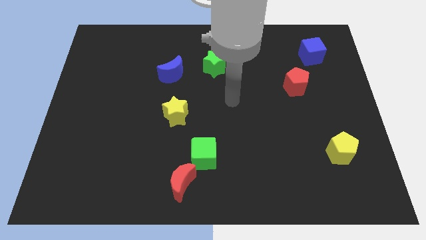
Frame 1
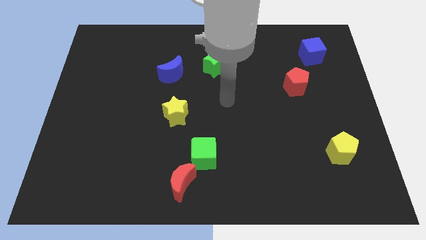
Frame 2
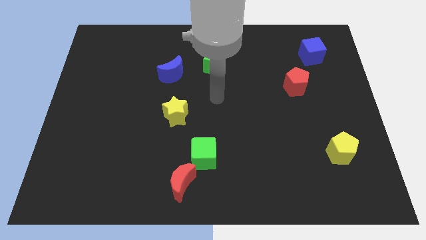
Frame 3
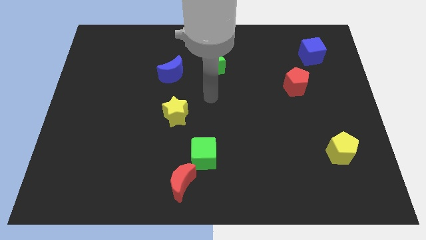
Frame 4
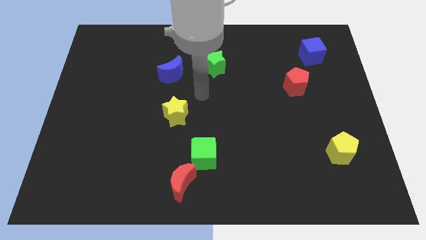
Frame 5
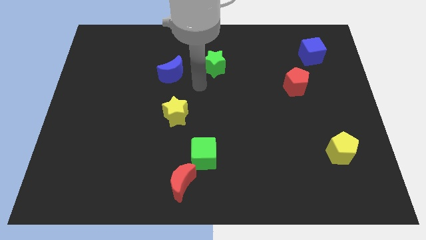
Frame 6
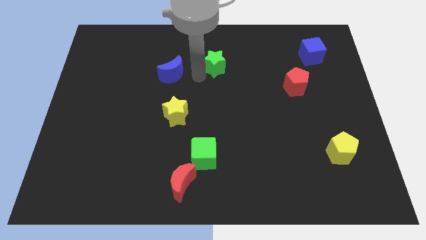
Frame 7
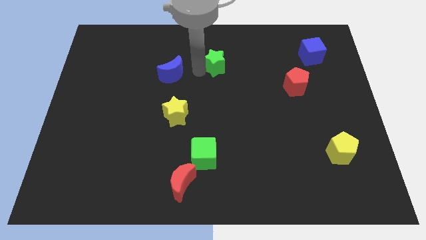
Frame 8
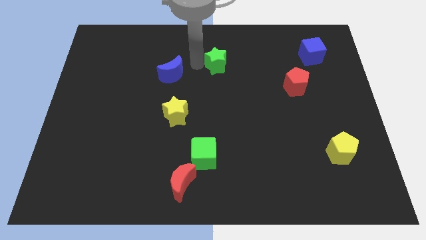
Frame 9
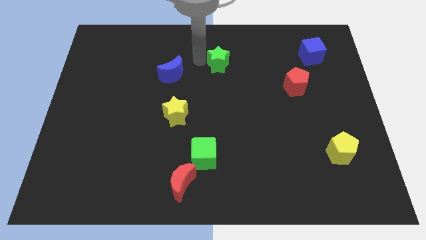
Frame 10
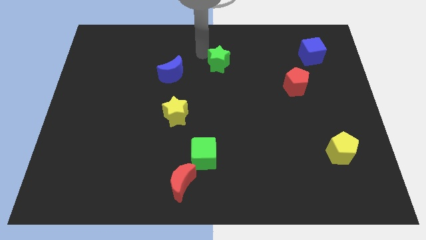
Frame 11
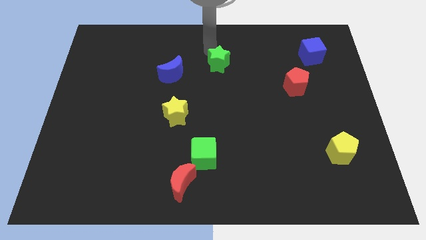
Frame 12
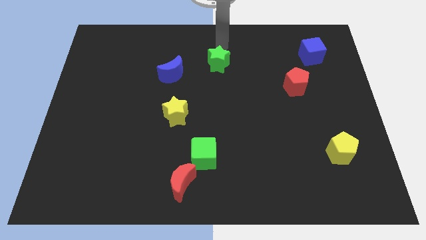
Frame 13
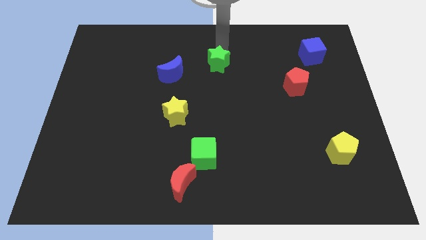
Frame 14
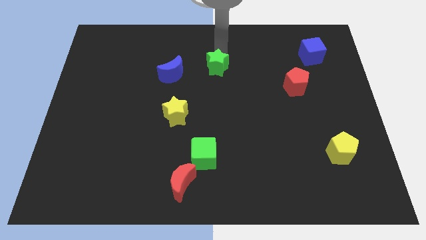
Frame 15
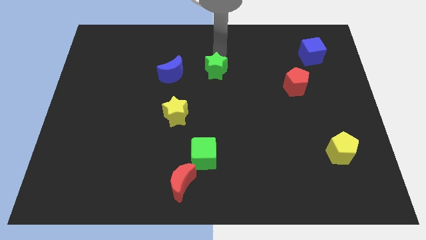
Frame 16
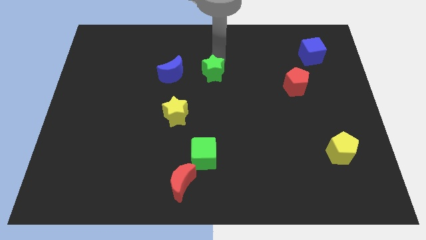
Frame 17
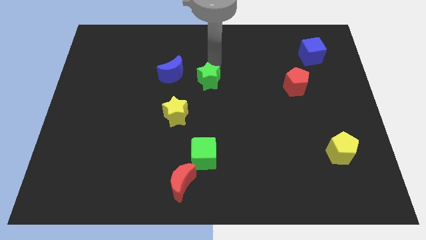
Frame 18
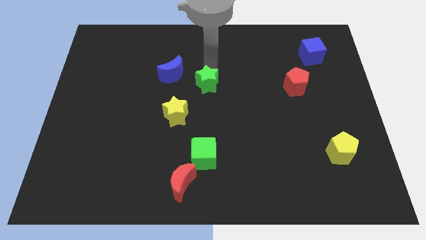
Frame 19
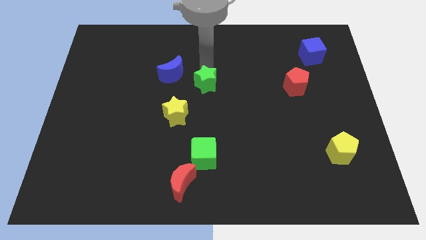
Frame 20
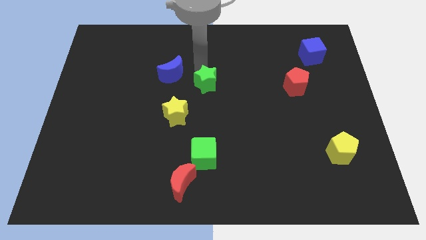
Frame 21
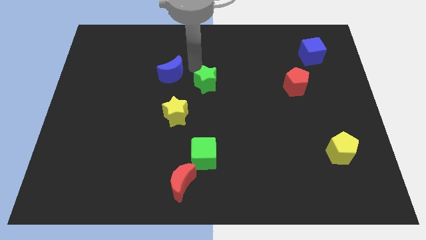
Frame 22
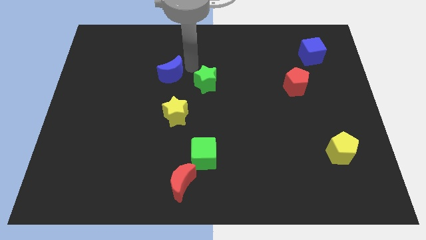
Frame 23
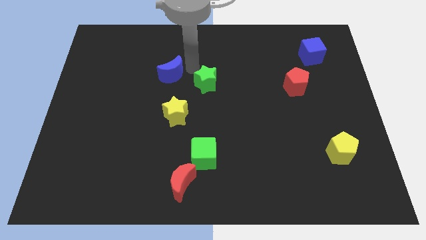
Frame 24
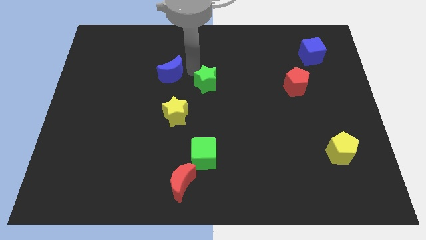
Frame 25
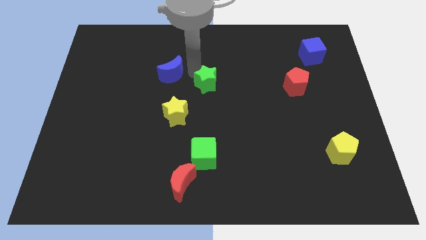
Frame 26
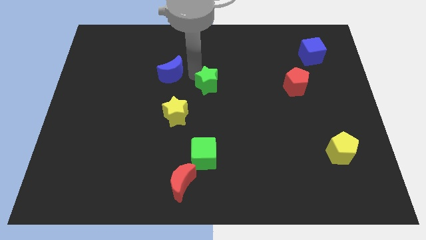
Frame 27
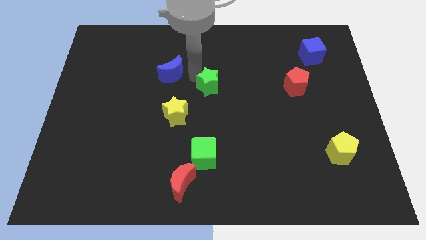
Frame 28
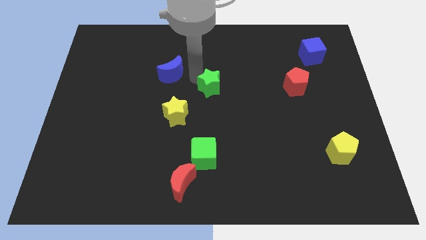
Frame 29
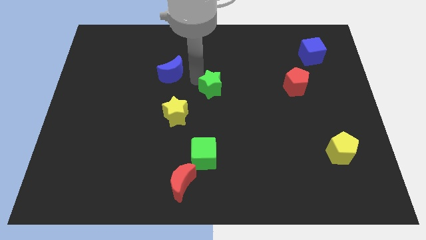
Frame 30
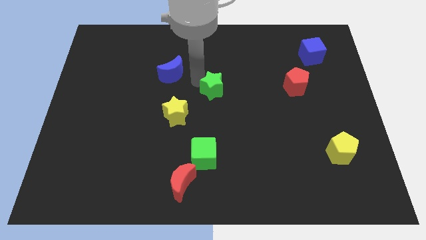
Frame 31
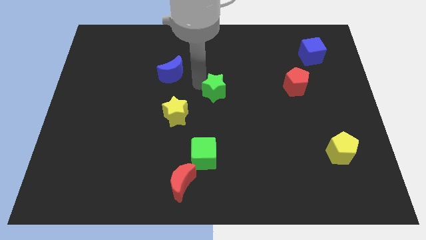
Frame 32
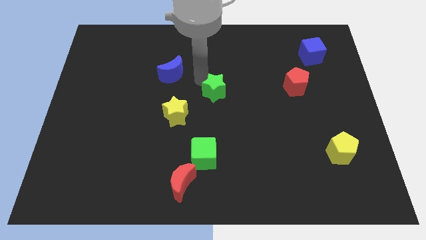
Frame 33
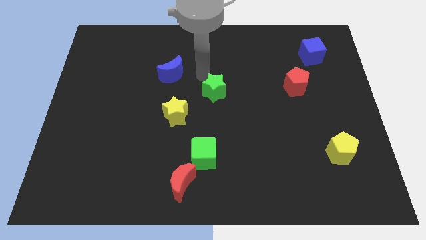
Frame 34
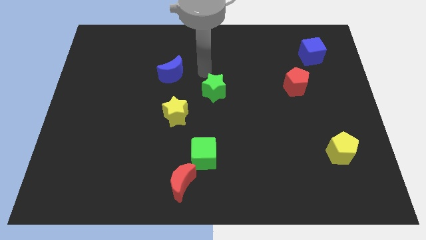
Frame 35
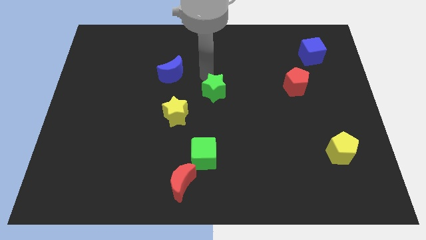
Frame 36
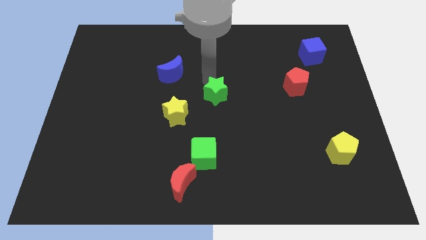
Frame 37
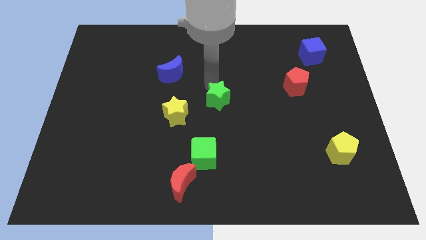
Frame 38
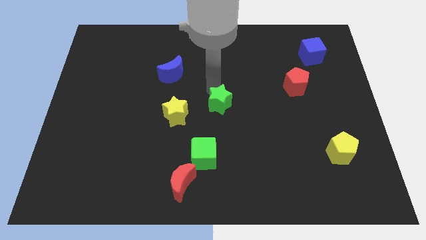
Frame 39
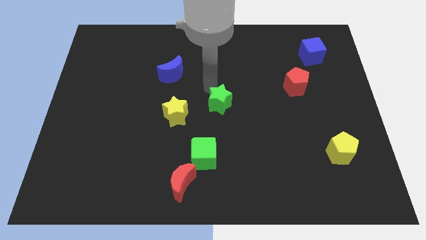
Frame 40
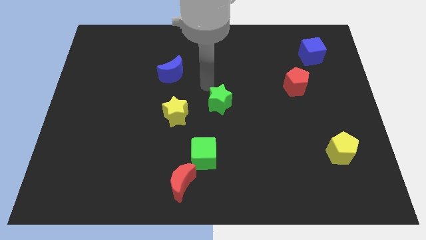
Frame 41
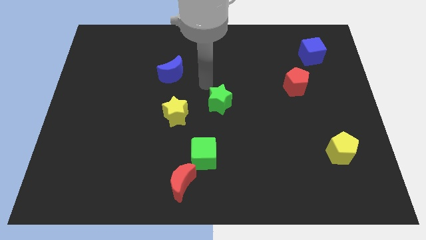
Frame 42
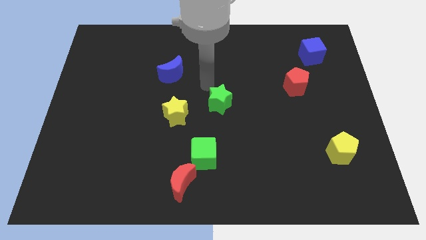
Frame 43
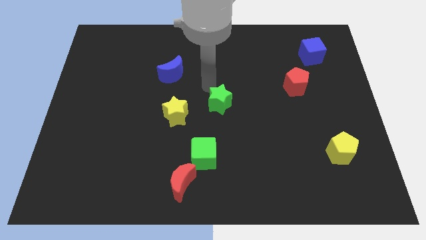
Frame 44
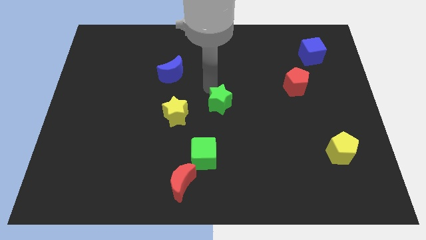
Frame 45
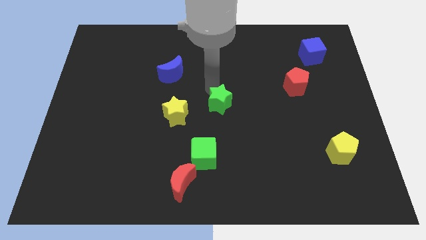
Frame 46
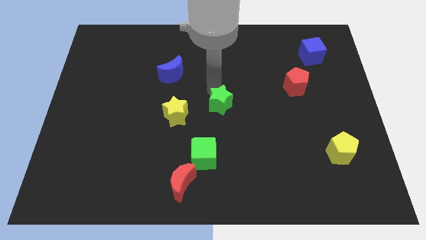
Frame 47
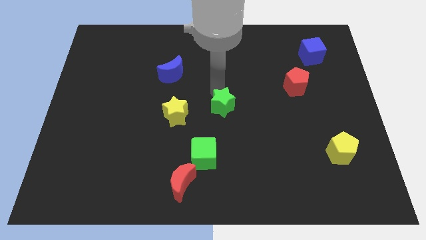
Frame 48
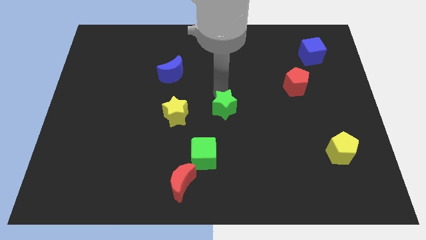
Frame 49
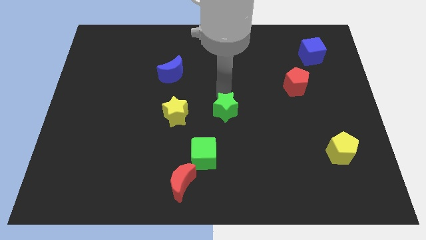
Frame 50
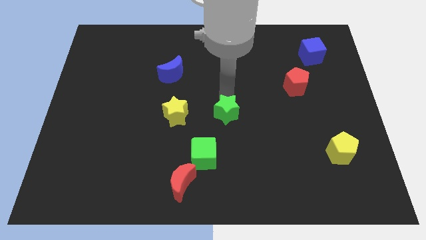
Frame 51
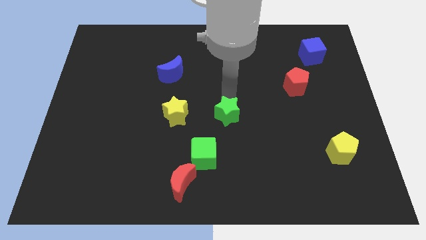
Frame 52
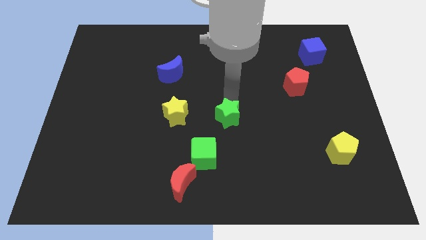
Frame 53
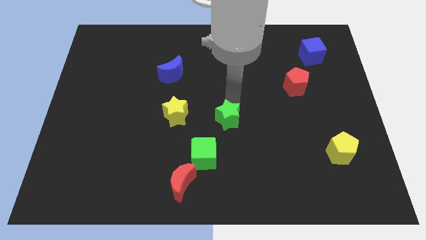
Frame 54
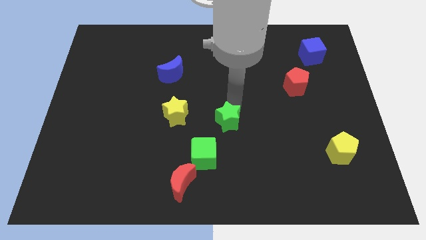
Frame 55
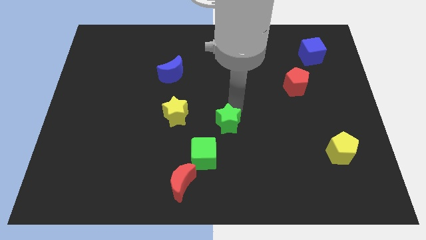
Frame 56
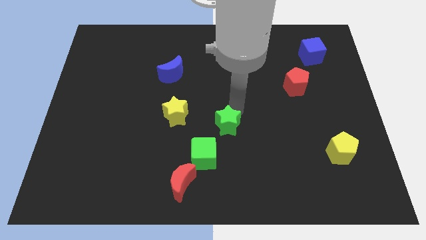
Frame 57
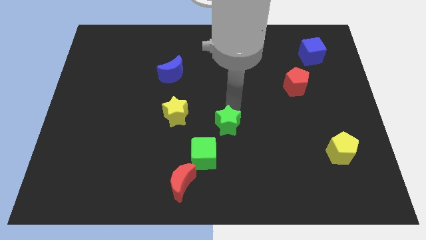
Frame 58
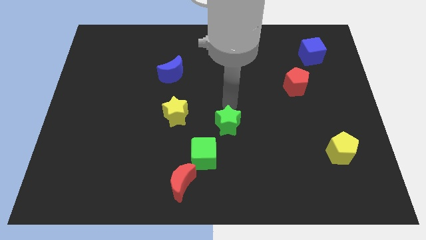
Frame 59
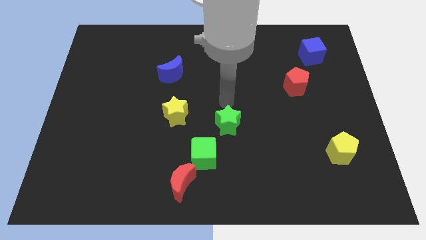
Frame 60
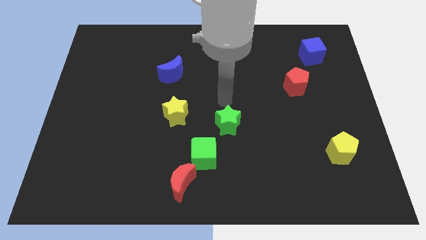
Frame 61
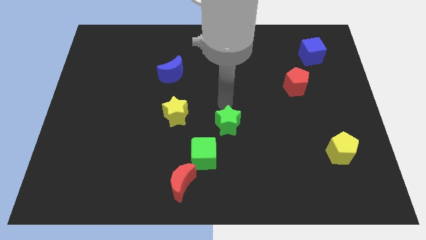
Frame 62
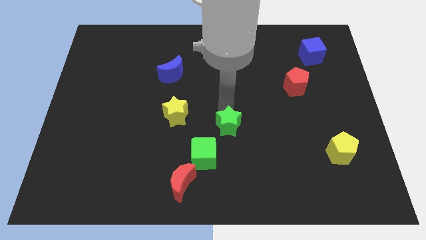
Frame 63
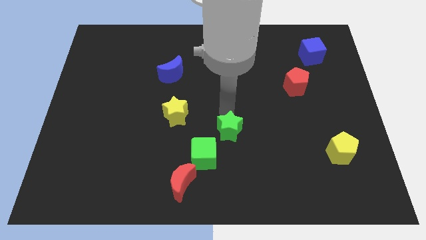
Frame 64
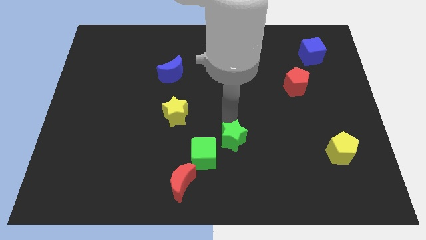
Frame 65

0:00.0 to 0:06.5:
push the green star downwards

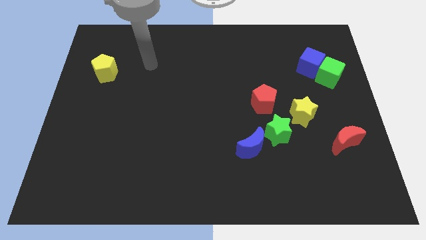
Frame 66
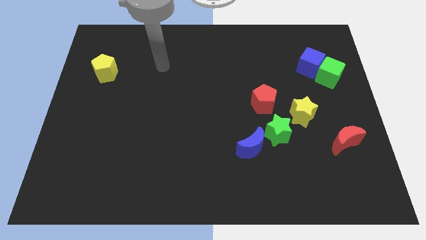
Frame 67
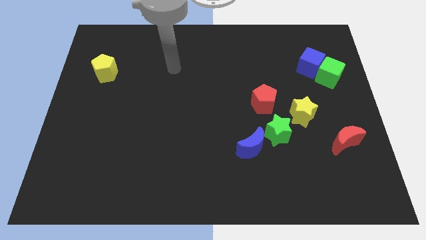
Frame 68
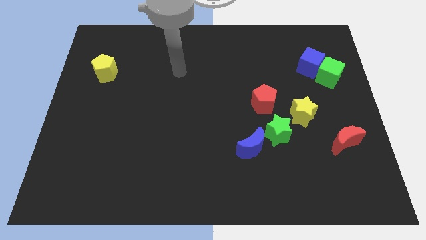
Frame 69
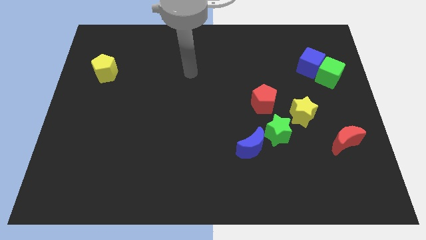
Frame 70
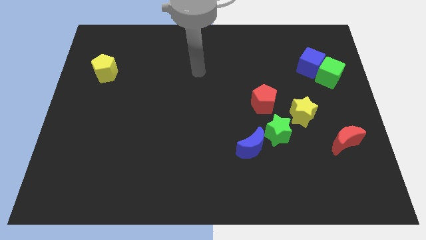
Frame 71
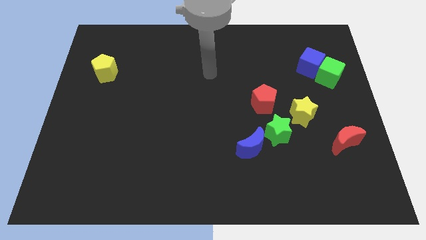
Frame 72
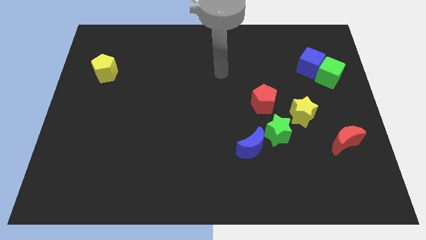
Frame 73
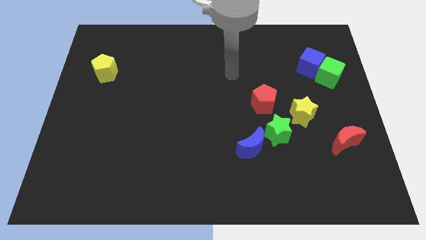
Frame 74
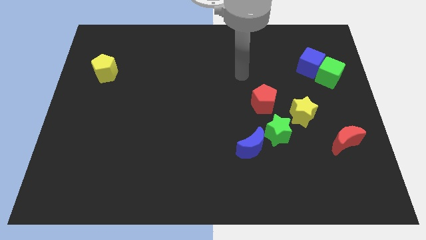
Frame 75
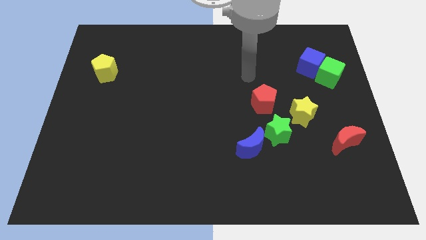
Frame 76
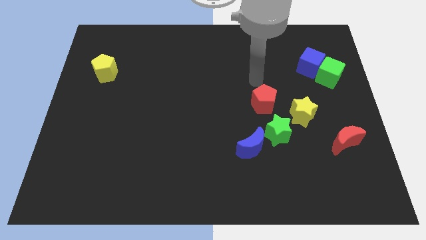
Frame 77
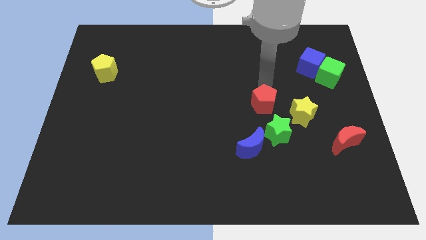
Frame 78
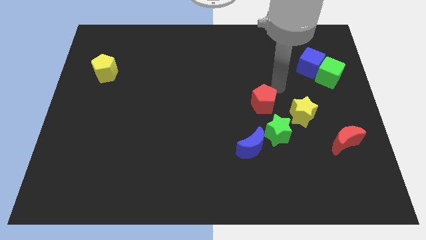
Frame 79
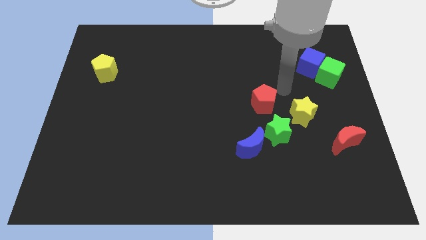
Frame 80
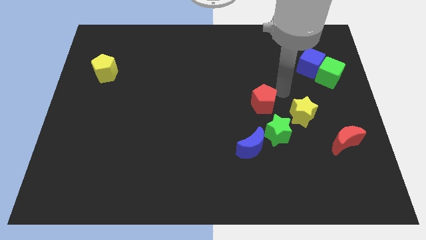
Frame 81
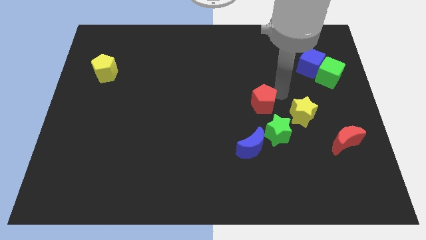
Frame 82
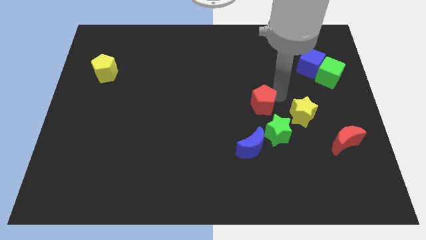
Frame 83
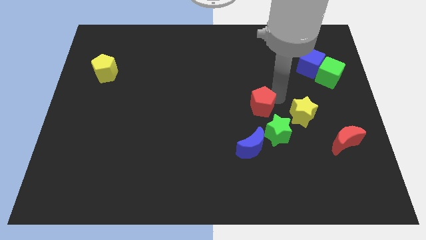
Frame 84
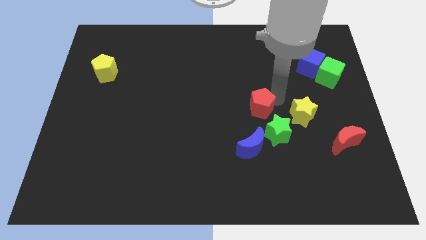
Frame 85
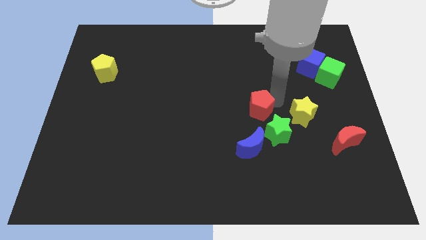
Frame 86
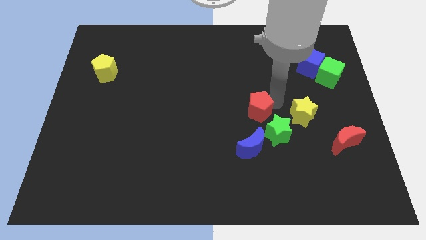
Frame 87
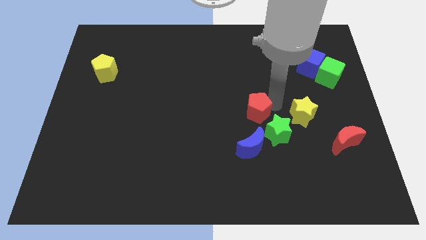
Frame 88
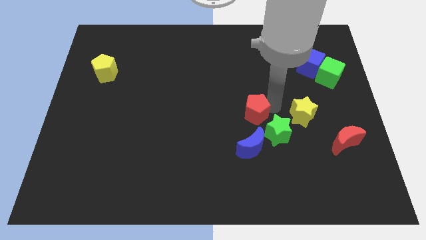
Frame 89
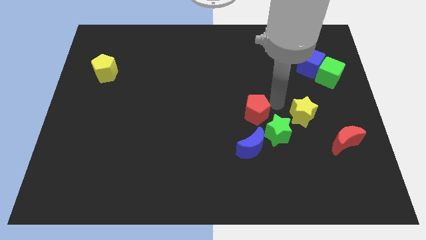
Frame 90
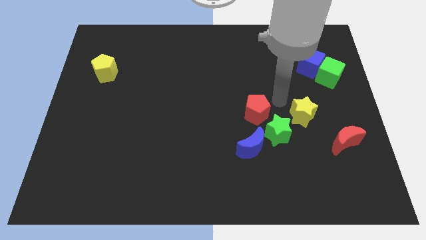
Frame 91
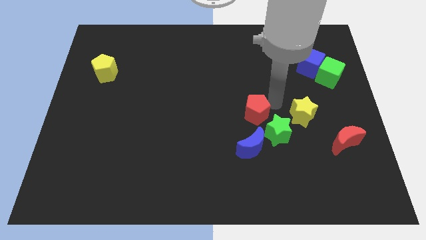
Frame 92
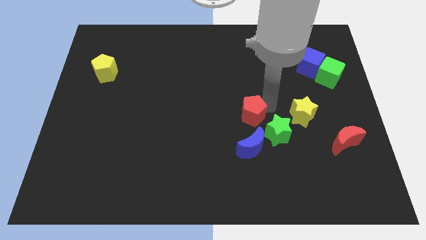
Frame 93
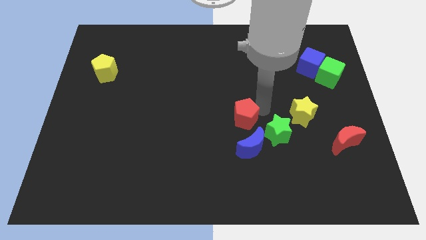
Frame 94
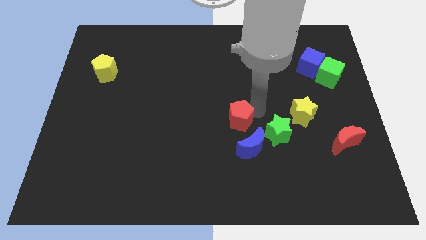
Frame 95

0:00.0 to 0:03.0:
slide the red pentagon diagonally downwards and to the left a little
